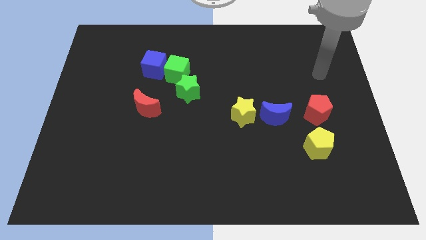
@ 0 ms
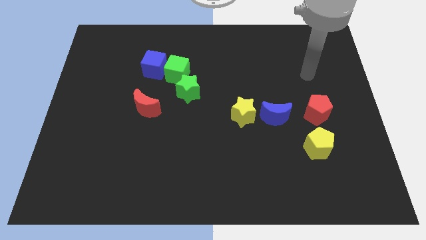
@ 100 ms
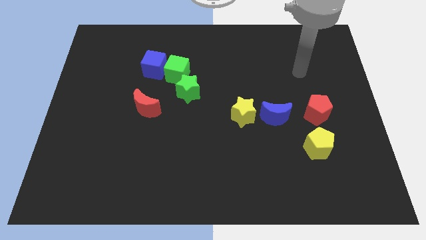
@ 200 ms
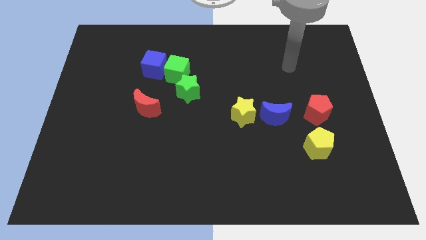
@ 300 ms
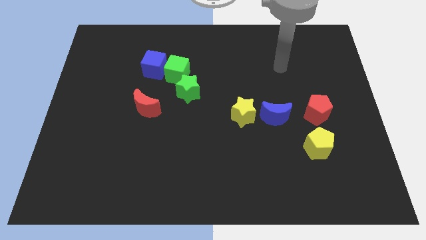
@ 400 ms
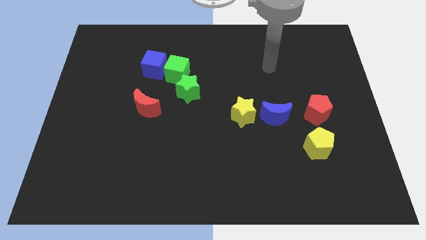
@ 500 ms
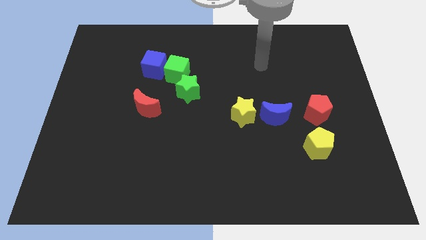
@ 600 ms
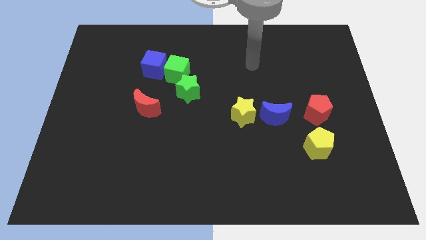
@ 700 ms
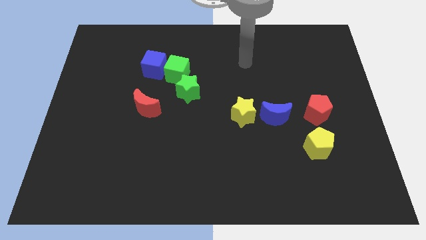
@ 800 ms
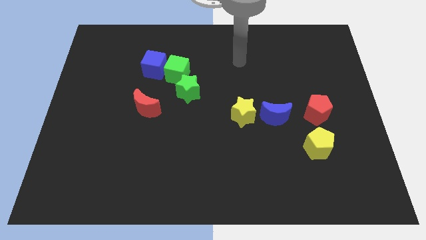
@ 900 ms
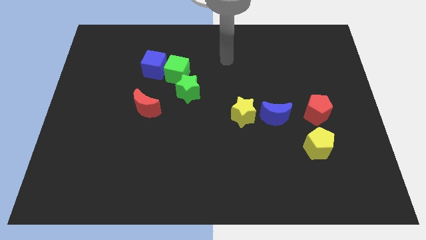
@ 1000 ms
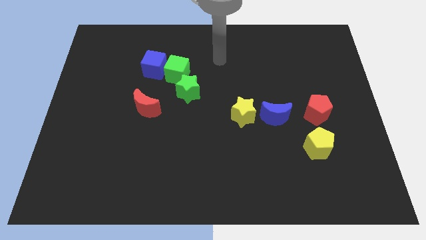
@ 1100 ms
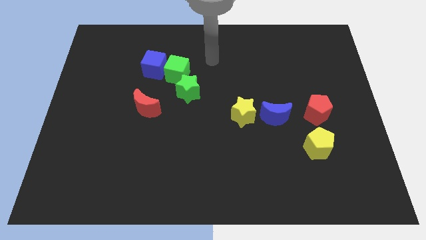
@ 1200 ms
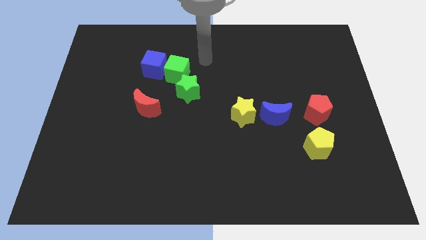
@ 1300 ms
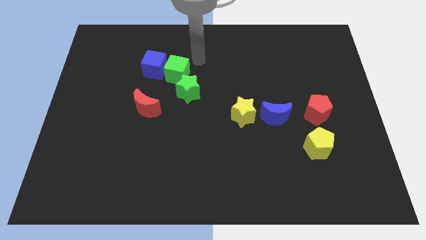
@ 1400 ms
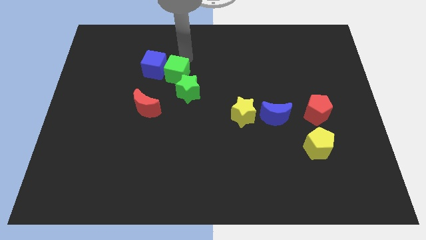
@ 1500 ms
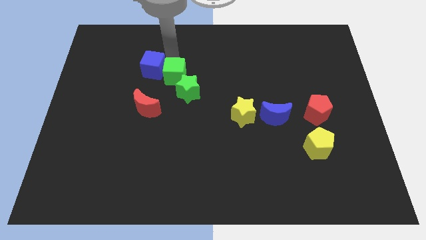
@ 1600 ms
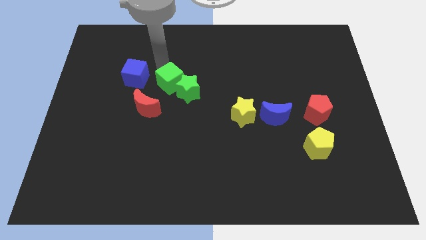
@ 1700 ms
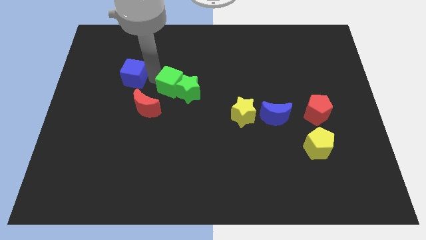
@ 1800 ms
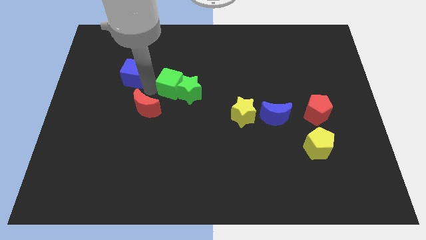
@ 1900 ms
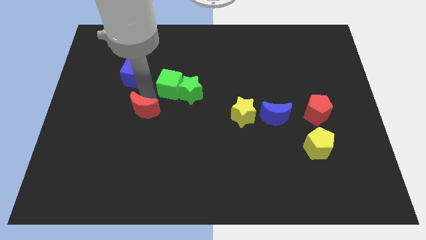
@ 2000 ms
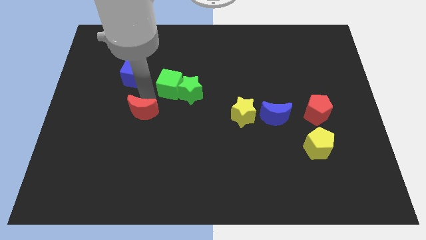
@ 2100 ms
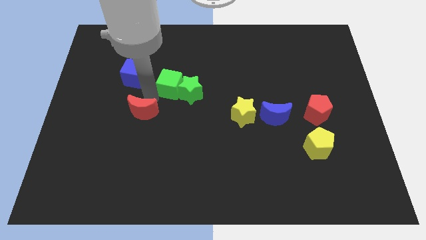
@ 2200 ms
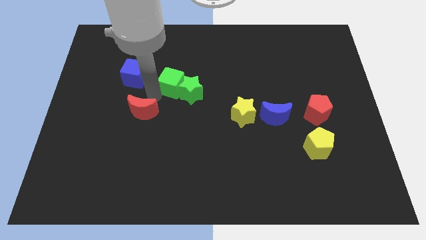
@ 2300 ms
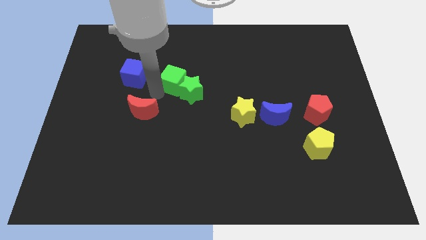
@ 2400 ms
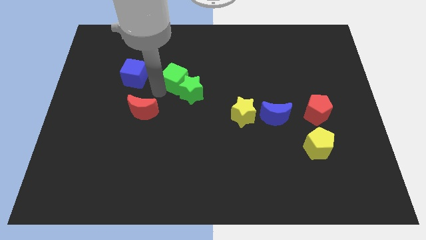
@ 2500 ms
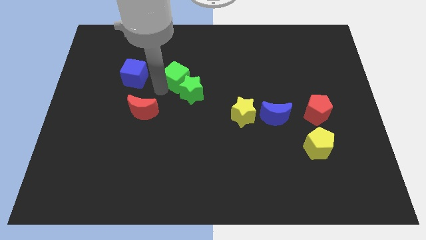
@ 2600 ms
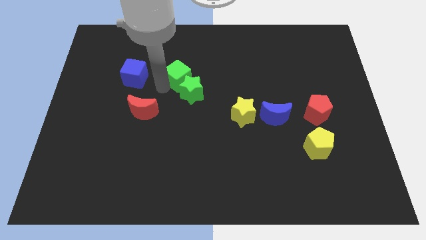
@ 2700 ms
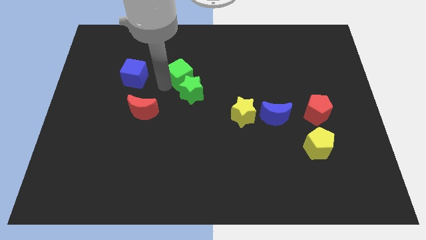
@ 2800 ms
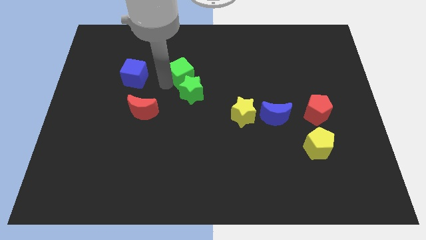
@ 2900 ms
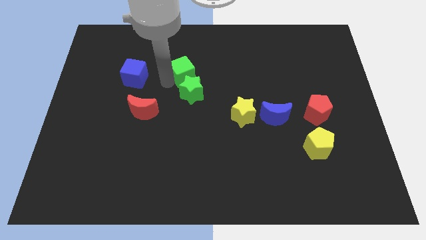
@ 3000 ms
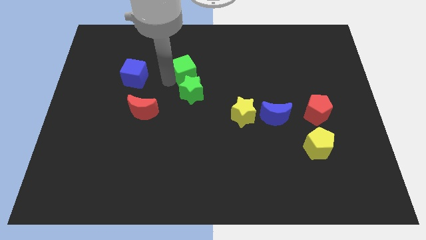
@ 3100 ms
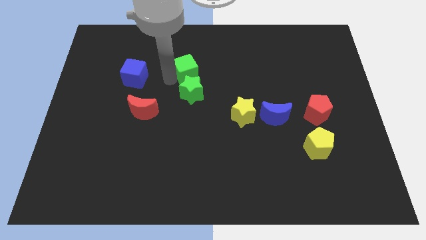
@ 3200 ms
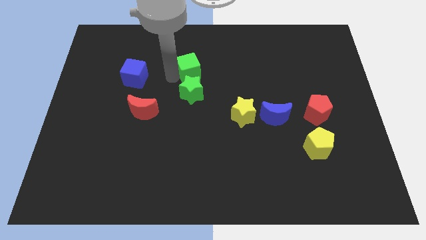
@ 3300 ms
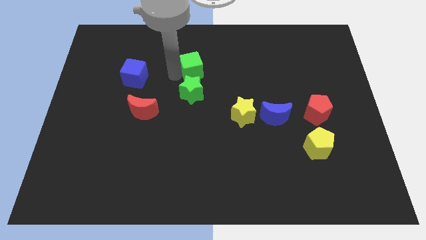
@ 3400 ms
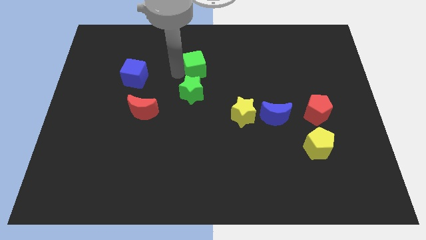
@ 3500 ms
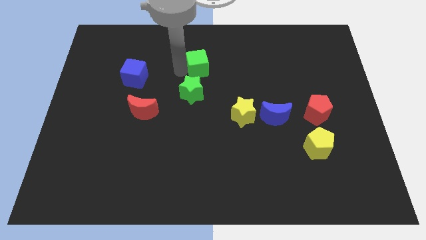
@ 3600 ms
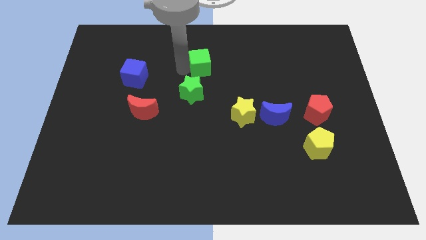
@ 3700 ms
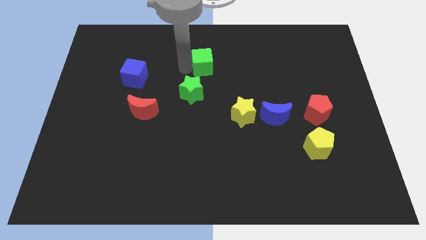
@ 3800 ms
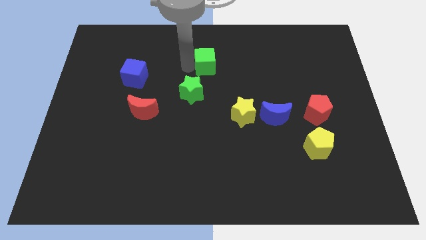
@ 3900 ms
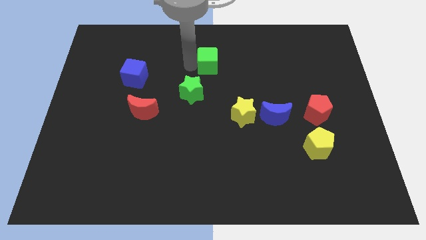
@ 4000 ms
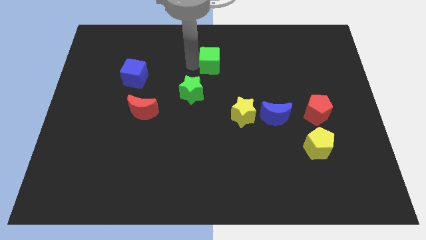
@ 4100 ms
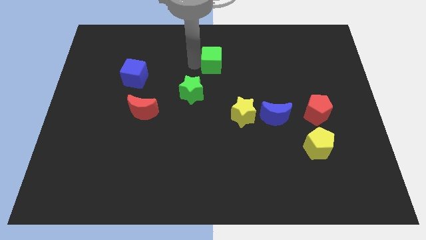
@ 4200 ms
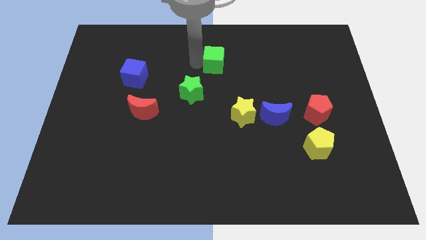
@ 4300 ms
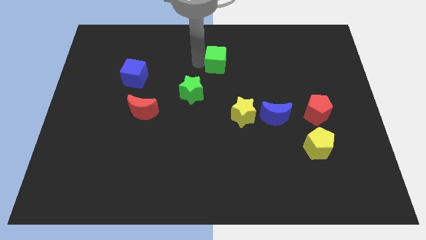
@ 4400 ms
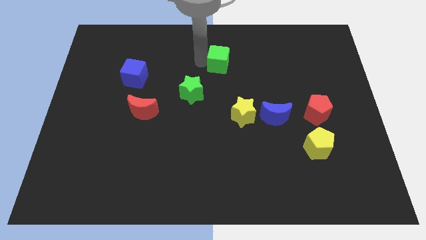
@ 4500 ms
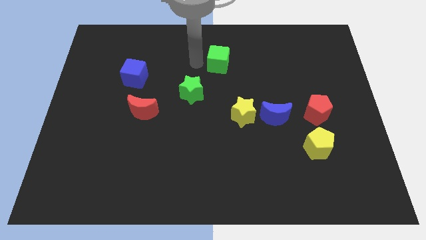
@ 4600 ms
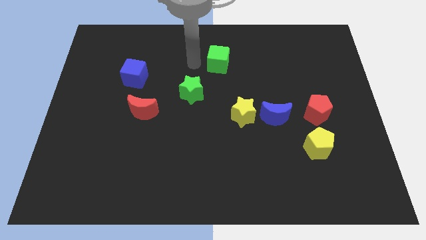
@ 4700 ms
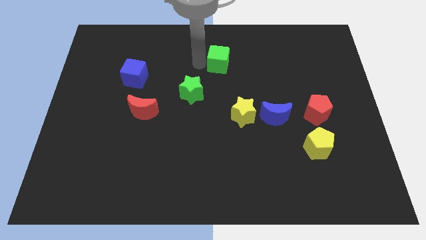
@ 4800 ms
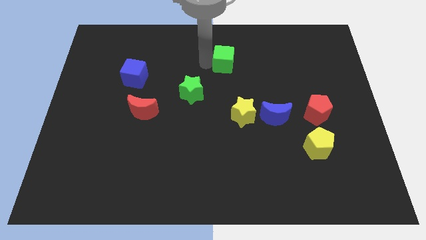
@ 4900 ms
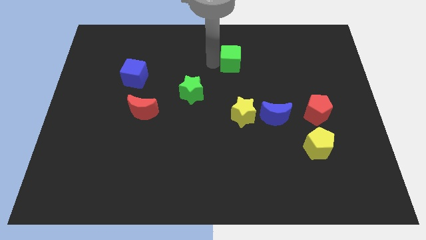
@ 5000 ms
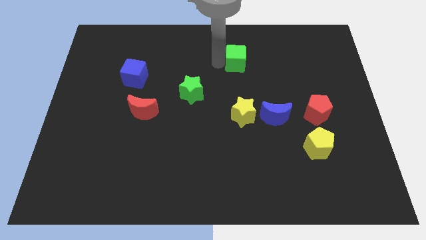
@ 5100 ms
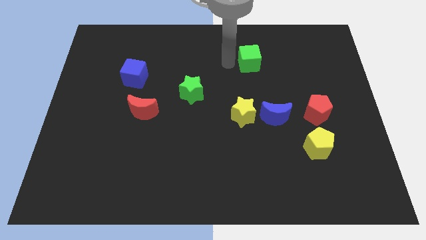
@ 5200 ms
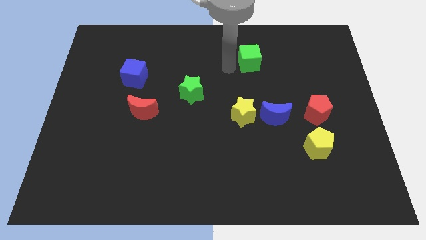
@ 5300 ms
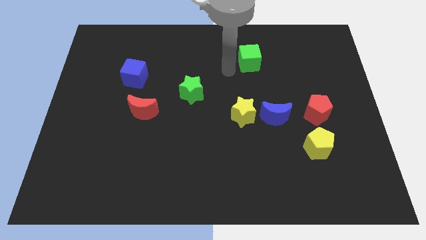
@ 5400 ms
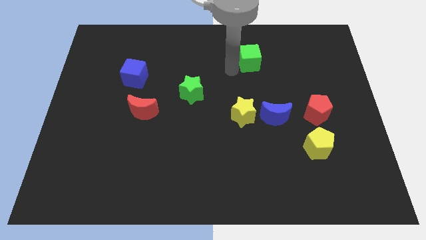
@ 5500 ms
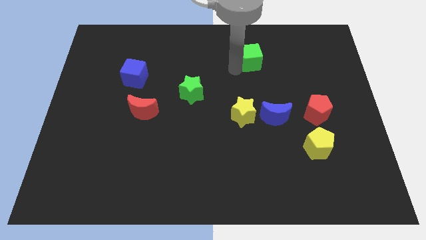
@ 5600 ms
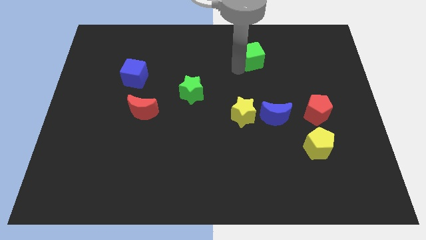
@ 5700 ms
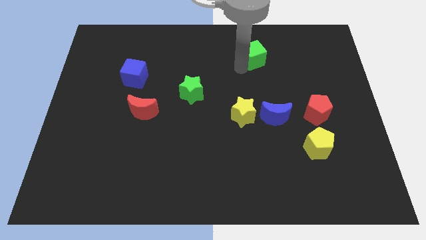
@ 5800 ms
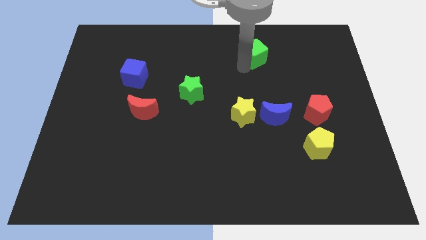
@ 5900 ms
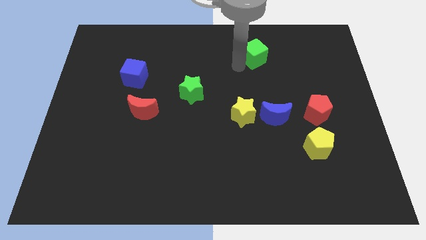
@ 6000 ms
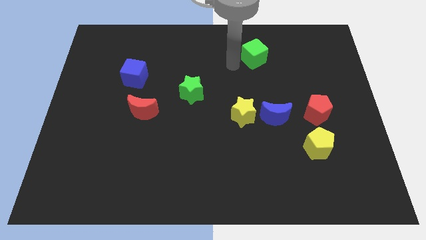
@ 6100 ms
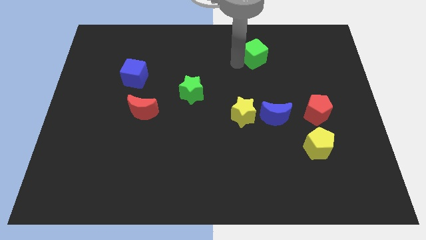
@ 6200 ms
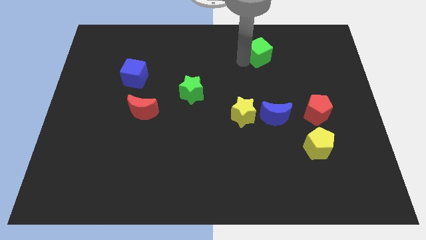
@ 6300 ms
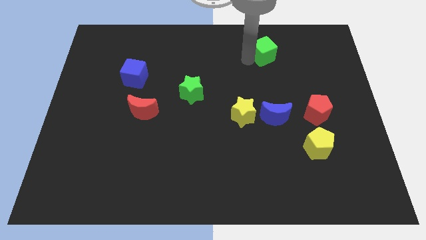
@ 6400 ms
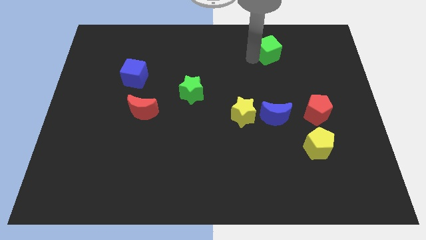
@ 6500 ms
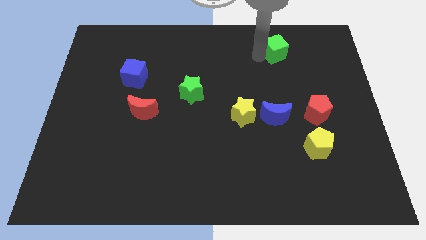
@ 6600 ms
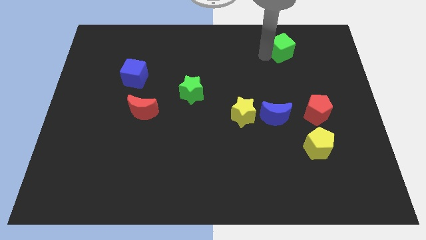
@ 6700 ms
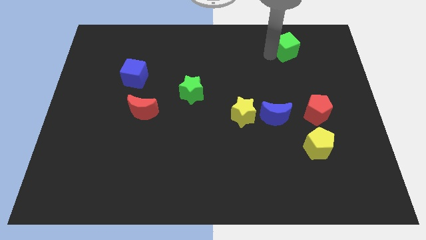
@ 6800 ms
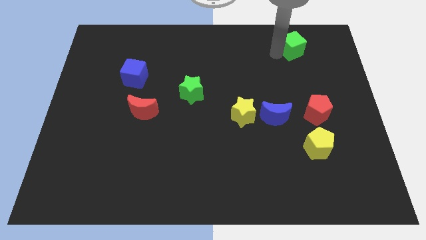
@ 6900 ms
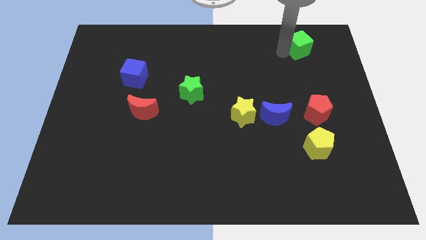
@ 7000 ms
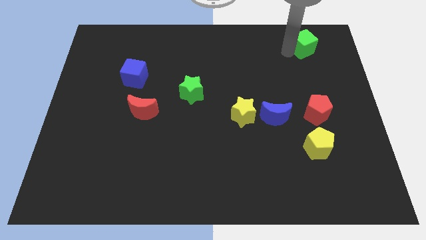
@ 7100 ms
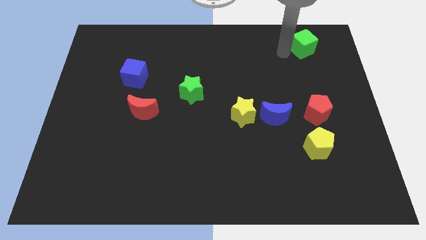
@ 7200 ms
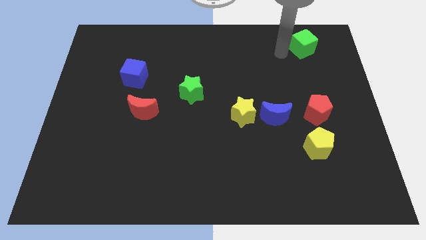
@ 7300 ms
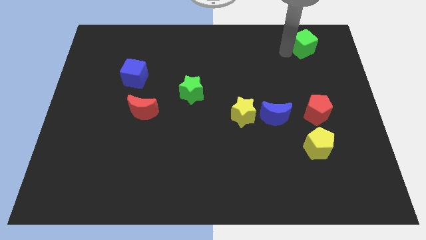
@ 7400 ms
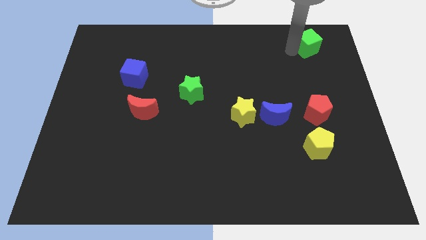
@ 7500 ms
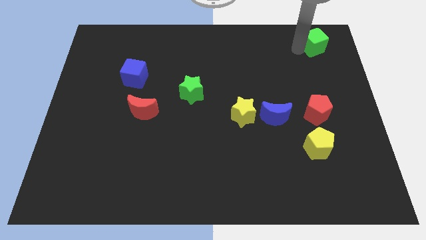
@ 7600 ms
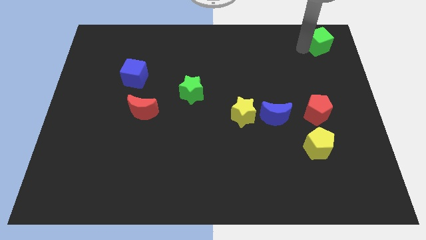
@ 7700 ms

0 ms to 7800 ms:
slide the green cube to the top right
